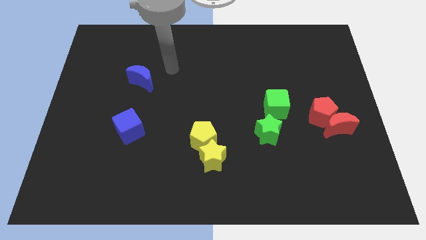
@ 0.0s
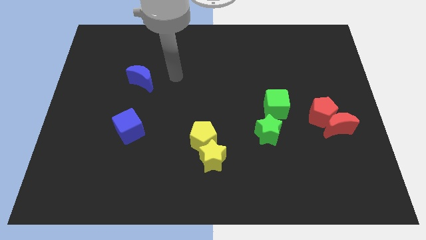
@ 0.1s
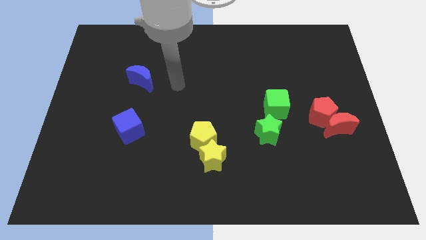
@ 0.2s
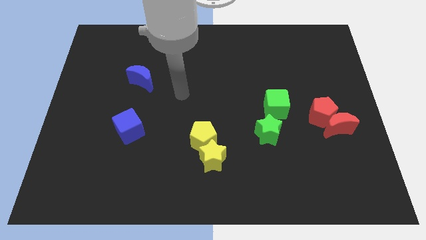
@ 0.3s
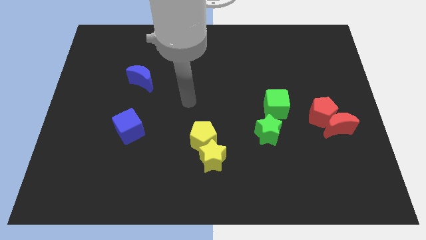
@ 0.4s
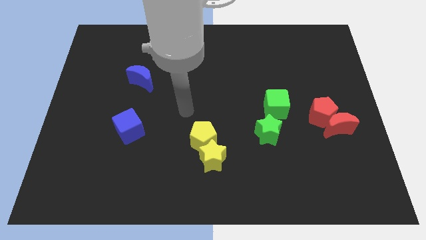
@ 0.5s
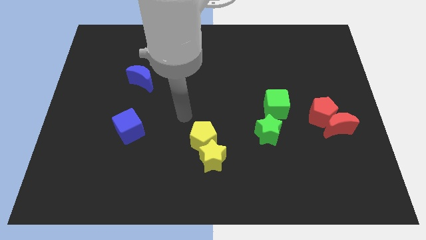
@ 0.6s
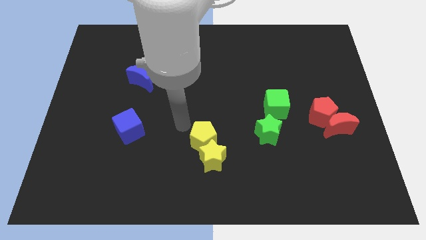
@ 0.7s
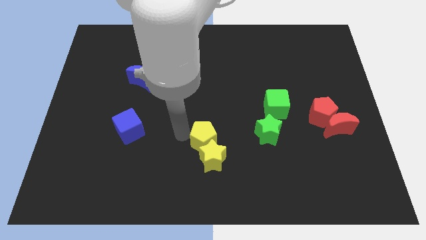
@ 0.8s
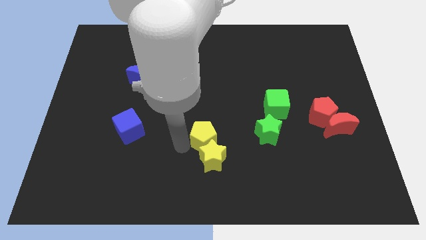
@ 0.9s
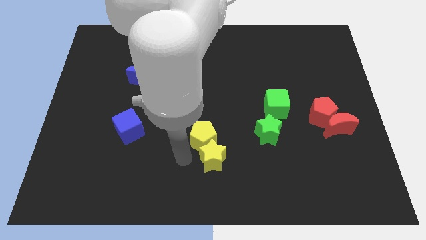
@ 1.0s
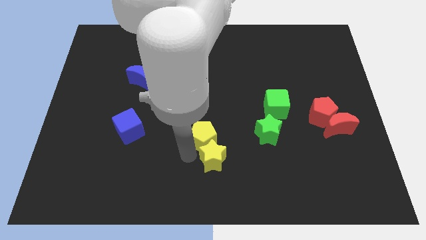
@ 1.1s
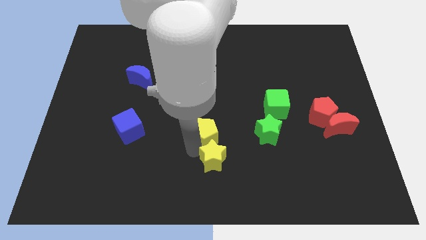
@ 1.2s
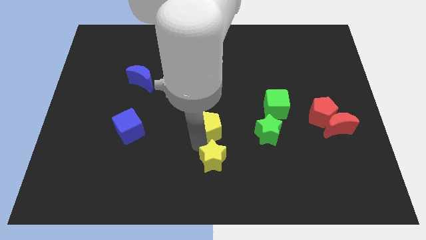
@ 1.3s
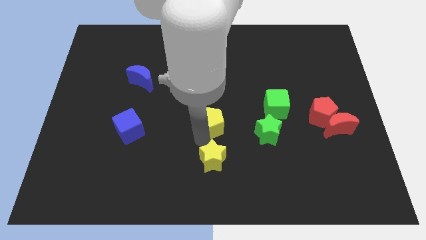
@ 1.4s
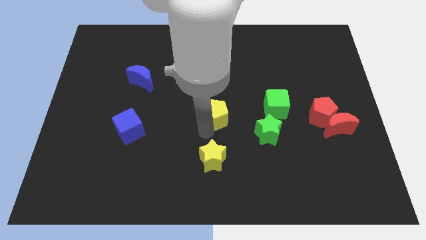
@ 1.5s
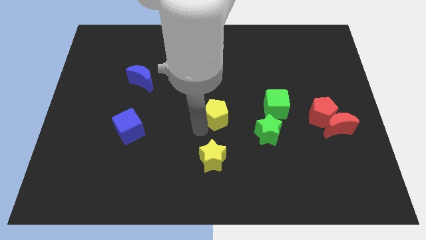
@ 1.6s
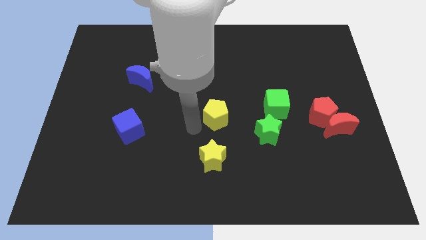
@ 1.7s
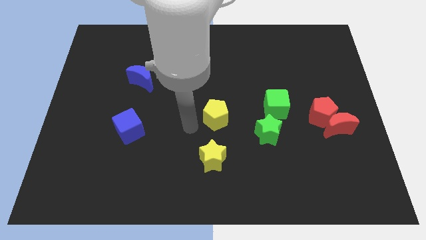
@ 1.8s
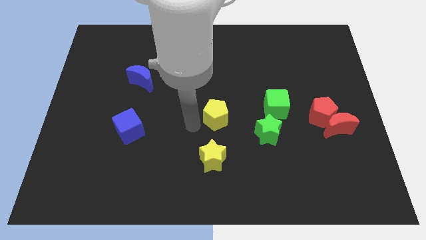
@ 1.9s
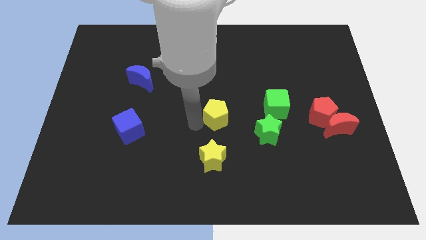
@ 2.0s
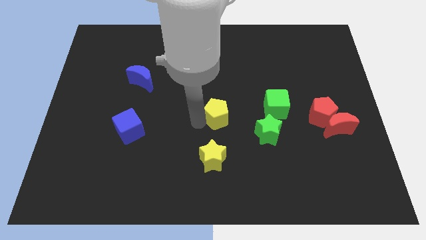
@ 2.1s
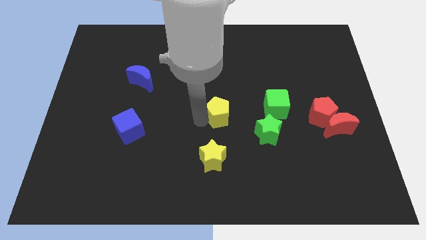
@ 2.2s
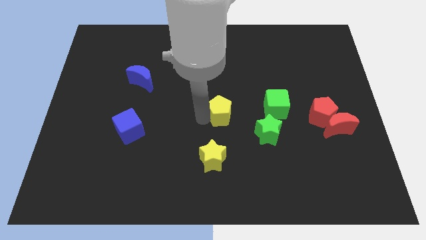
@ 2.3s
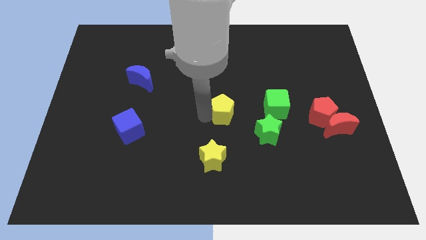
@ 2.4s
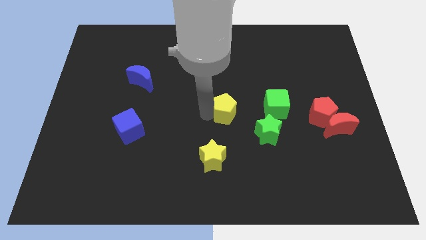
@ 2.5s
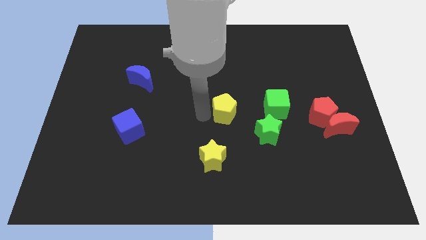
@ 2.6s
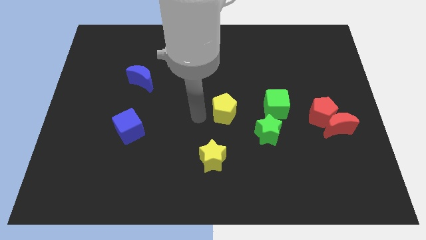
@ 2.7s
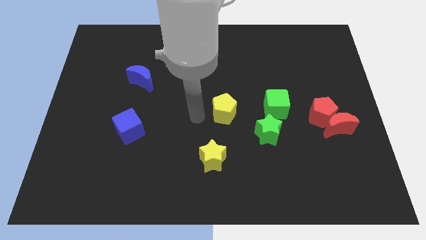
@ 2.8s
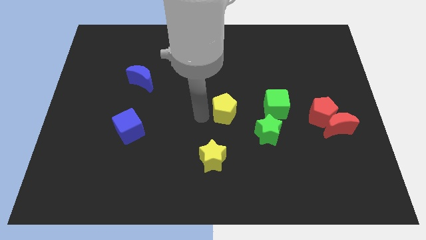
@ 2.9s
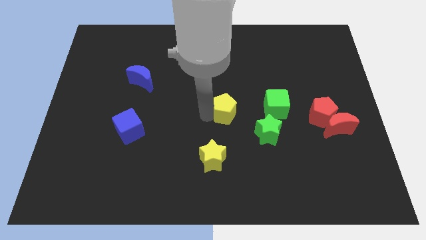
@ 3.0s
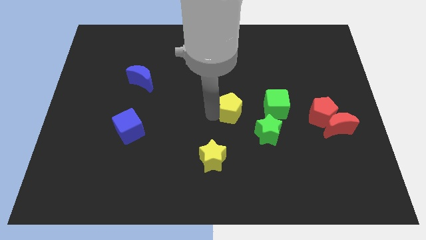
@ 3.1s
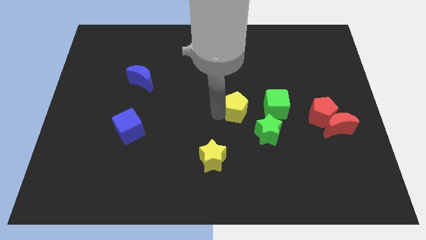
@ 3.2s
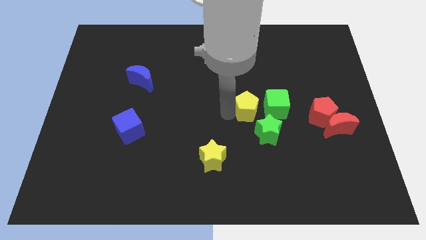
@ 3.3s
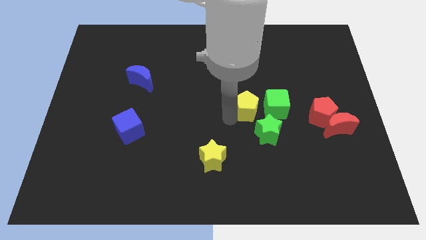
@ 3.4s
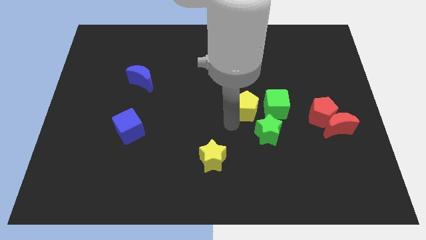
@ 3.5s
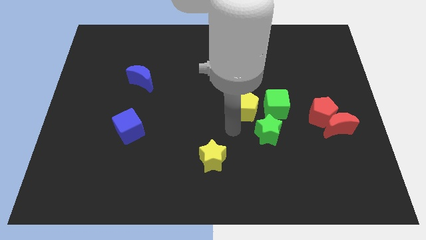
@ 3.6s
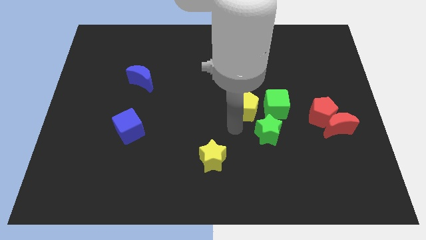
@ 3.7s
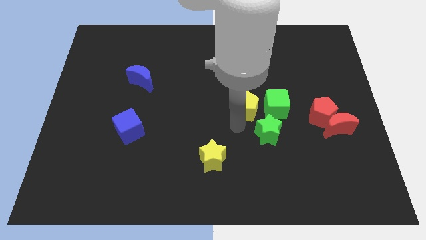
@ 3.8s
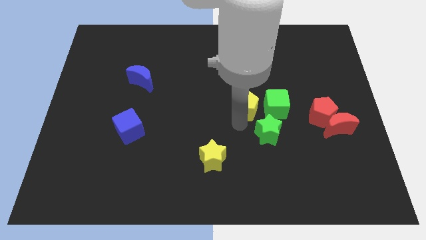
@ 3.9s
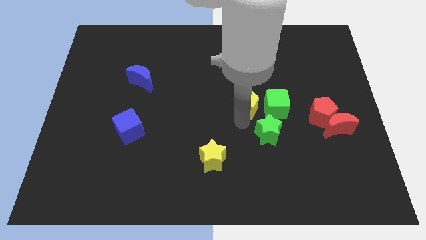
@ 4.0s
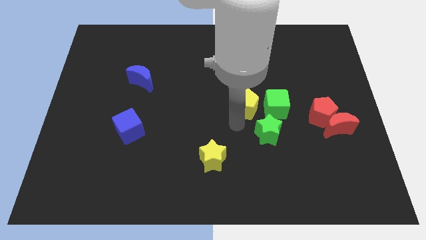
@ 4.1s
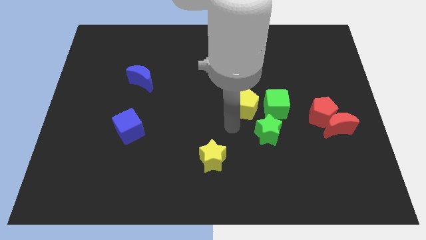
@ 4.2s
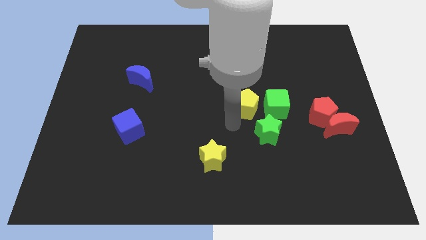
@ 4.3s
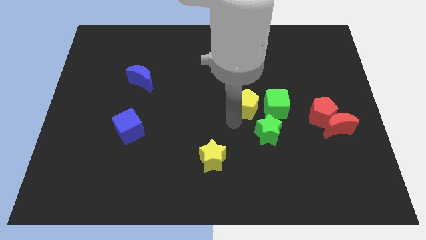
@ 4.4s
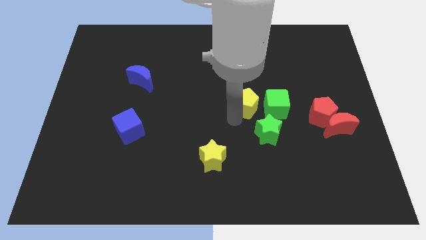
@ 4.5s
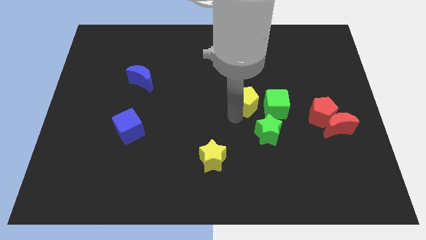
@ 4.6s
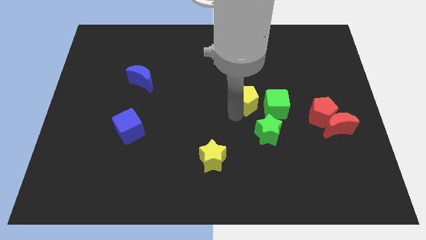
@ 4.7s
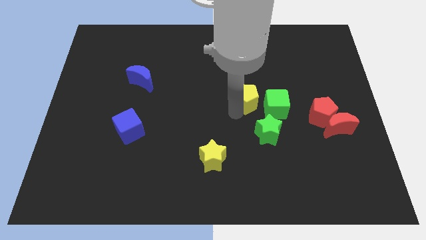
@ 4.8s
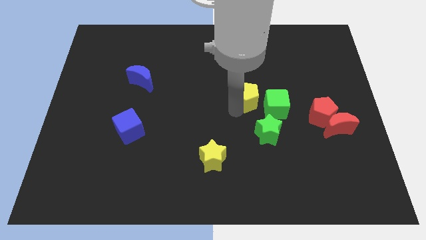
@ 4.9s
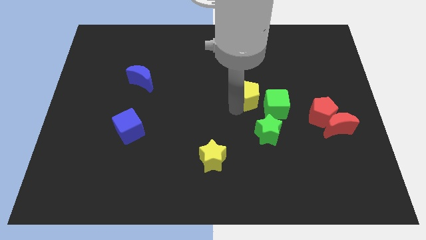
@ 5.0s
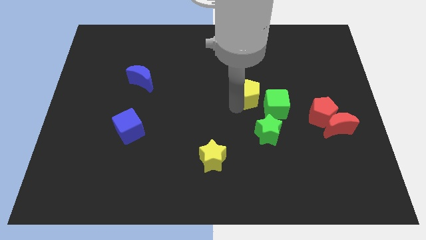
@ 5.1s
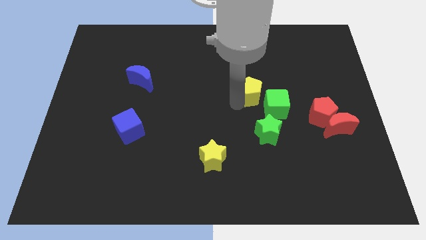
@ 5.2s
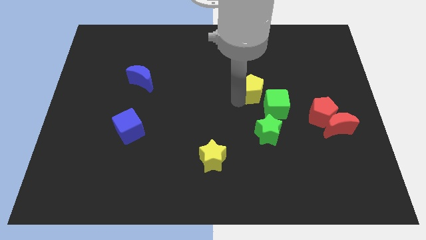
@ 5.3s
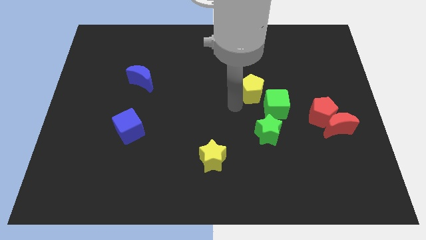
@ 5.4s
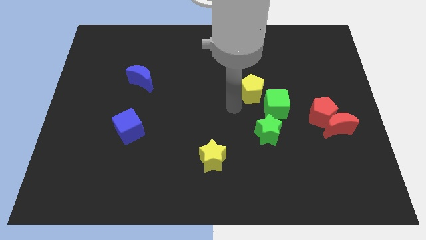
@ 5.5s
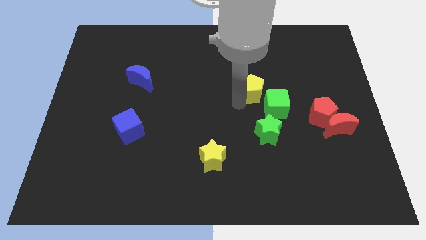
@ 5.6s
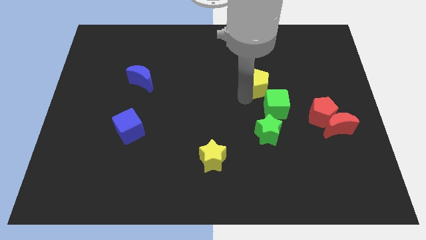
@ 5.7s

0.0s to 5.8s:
push the yellow pentagon to the top side of the green cube
